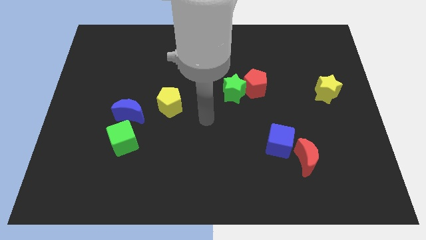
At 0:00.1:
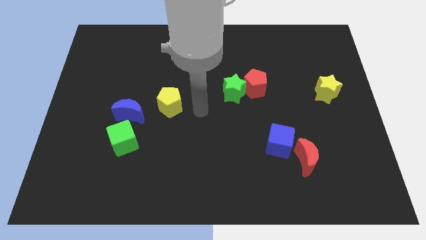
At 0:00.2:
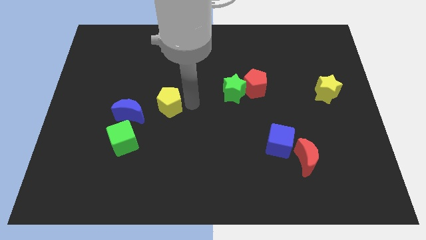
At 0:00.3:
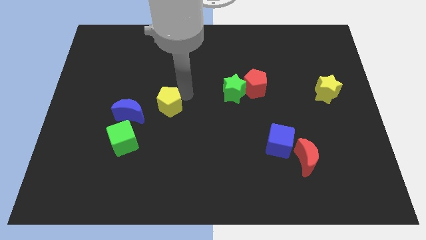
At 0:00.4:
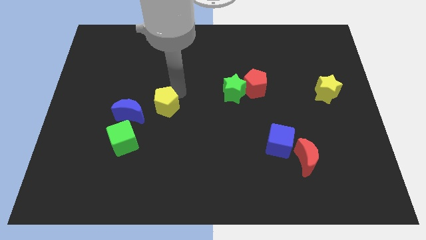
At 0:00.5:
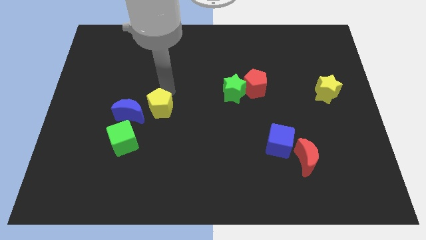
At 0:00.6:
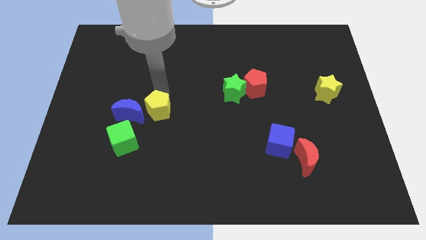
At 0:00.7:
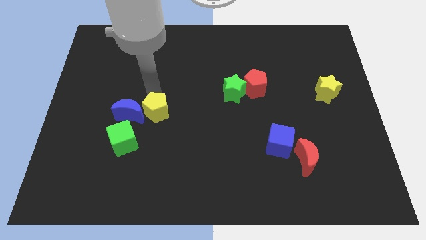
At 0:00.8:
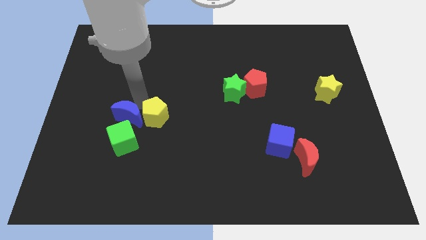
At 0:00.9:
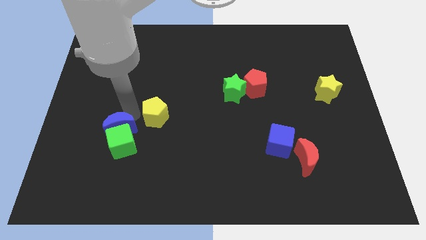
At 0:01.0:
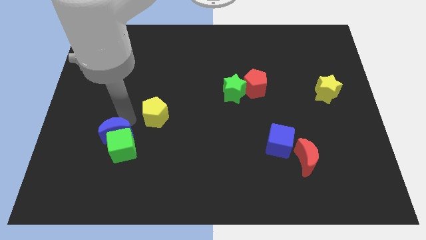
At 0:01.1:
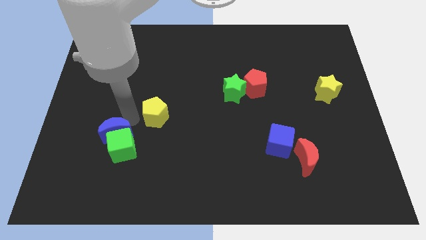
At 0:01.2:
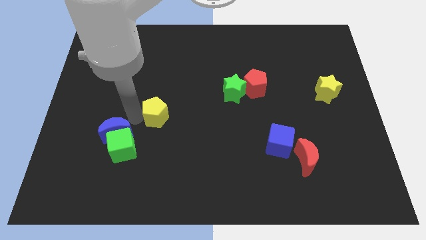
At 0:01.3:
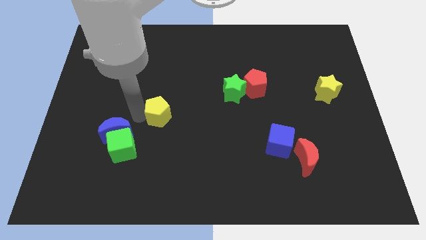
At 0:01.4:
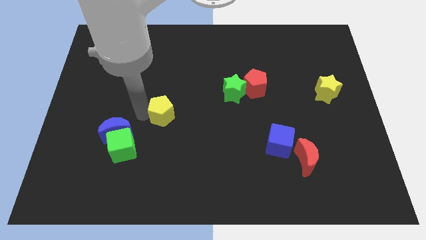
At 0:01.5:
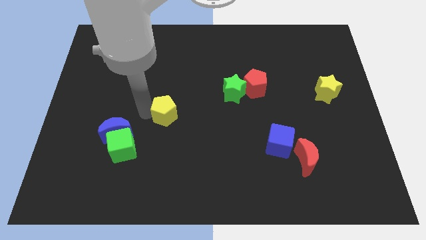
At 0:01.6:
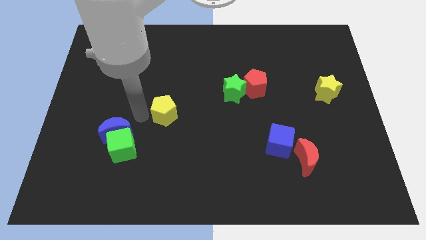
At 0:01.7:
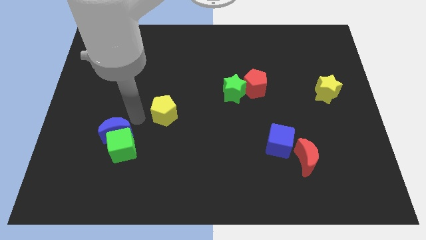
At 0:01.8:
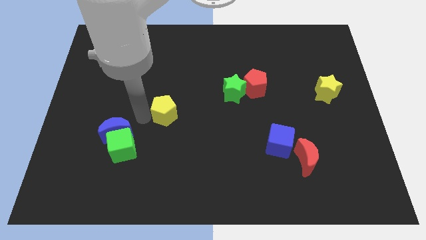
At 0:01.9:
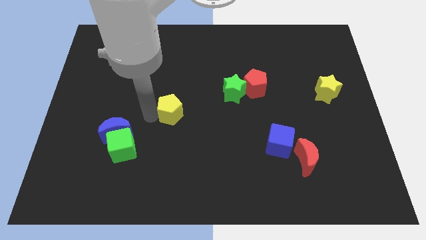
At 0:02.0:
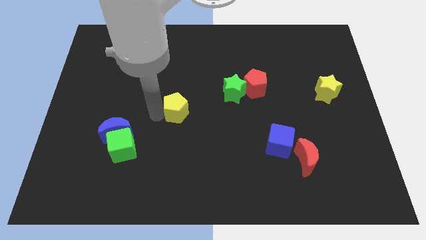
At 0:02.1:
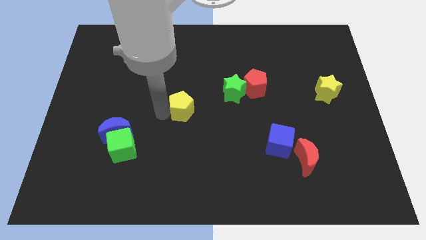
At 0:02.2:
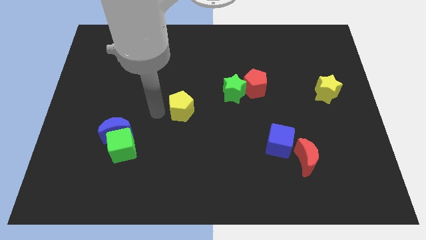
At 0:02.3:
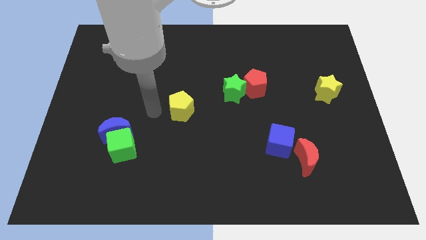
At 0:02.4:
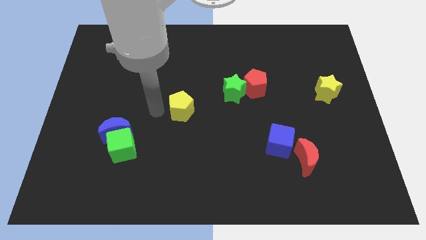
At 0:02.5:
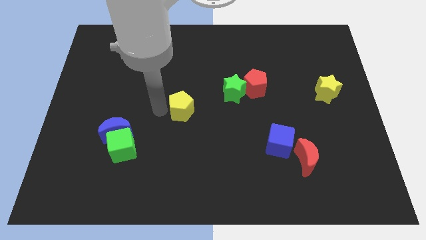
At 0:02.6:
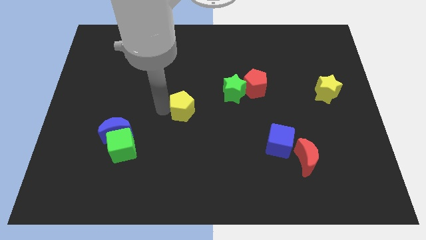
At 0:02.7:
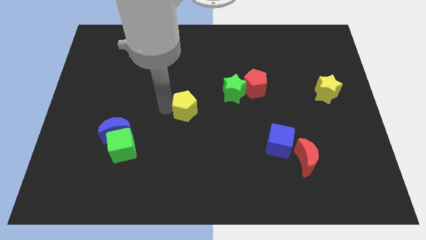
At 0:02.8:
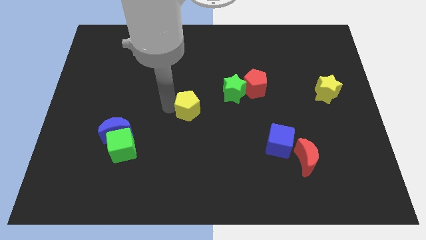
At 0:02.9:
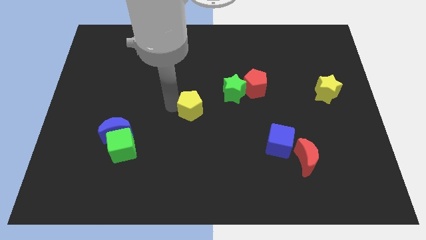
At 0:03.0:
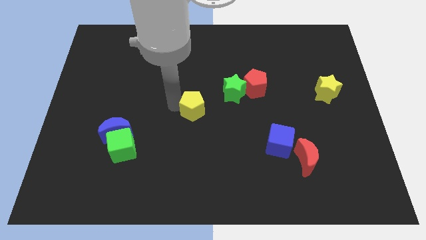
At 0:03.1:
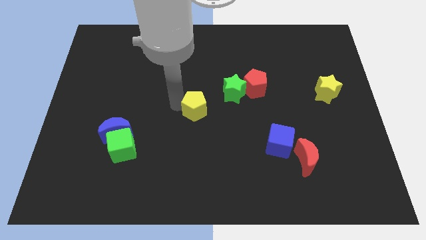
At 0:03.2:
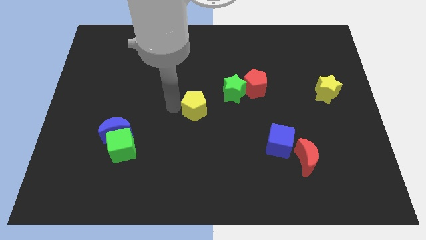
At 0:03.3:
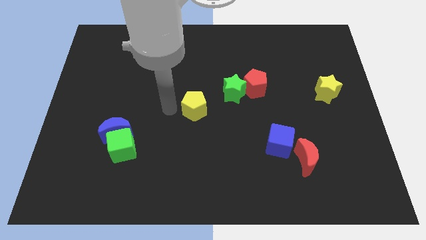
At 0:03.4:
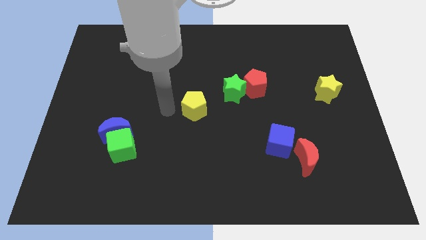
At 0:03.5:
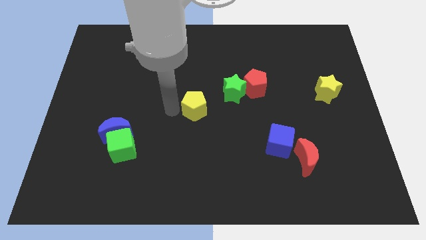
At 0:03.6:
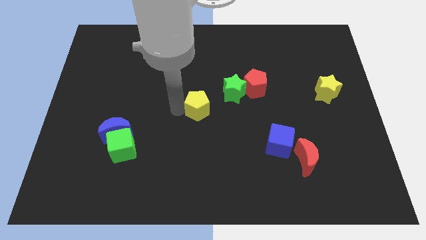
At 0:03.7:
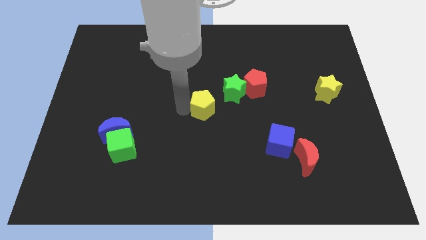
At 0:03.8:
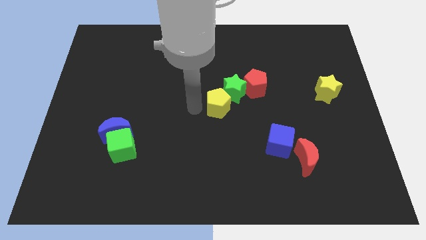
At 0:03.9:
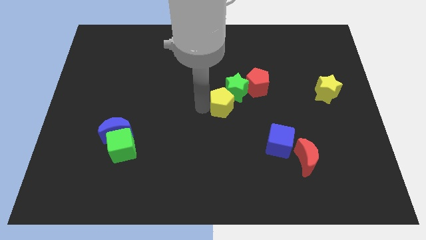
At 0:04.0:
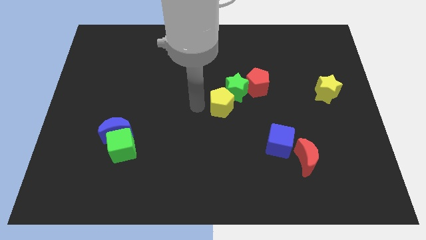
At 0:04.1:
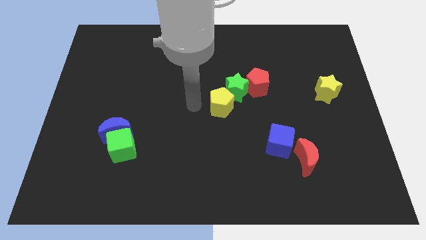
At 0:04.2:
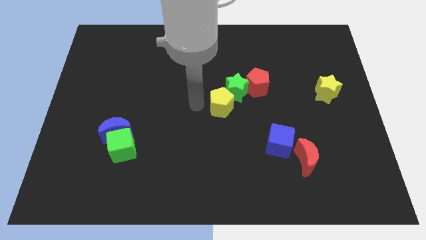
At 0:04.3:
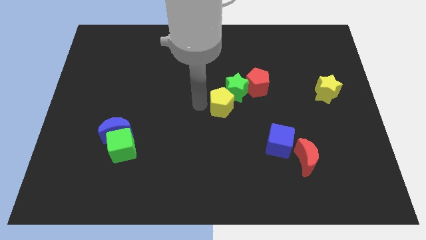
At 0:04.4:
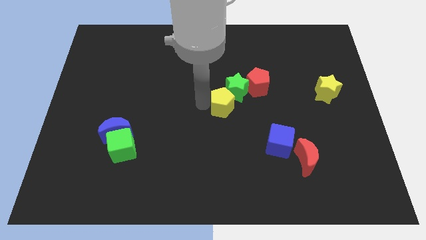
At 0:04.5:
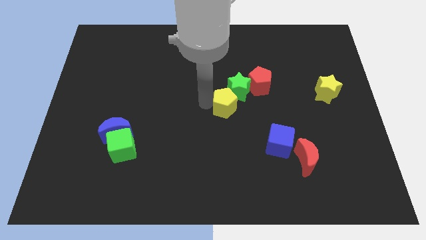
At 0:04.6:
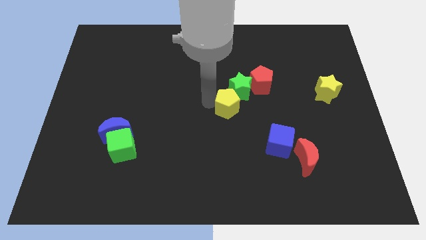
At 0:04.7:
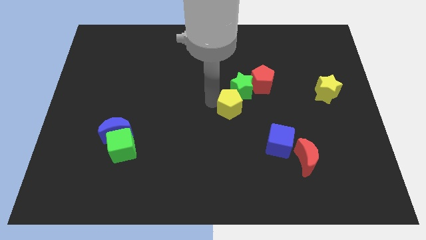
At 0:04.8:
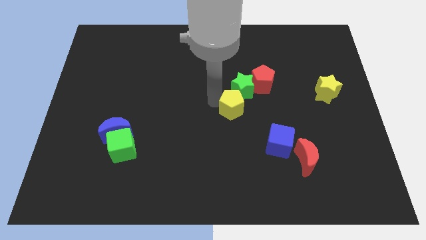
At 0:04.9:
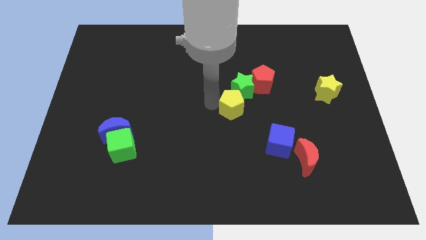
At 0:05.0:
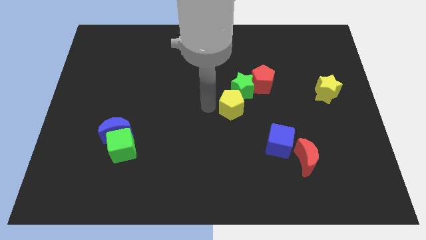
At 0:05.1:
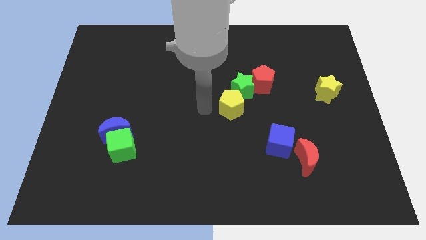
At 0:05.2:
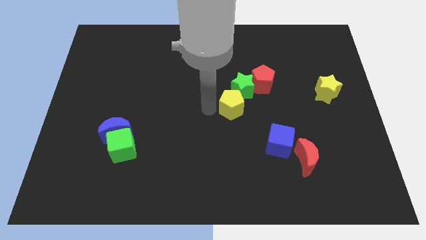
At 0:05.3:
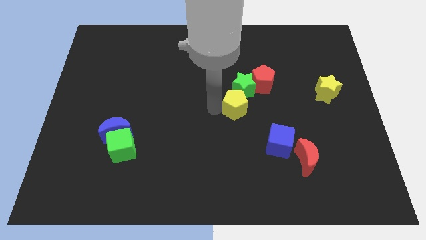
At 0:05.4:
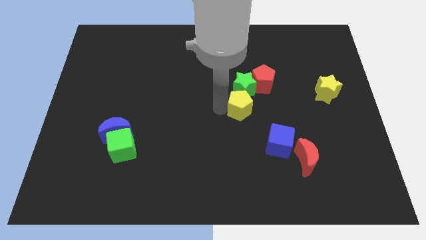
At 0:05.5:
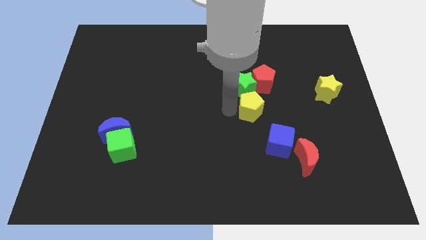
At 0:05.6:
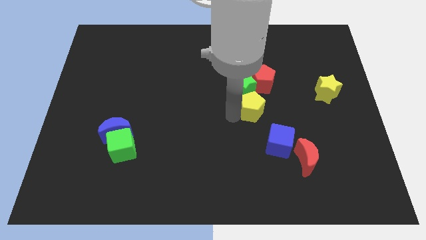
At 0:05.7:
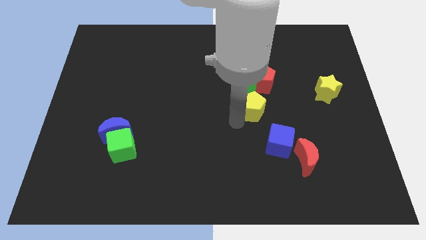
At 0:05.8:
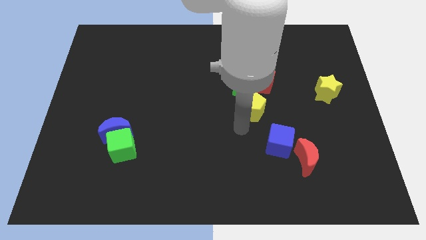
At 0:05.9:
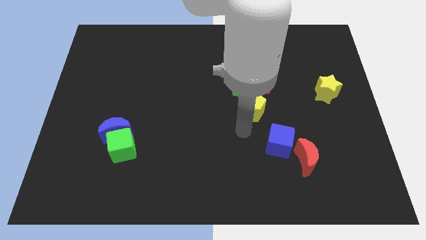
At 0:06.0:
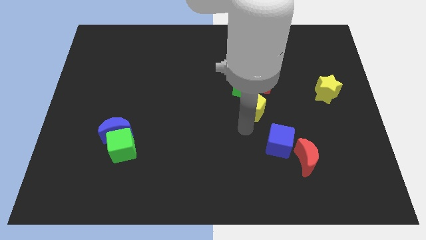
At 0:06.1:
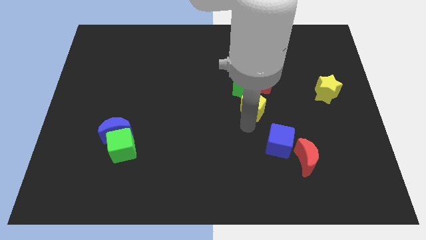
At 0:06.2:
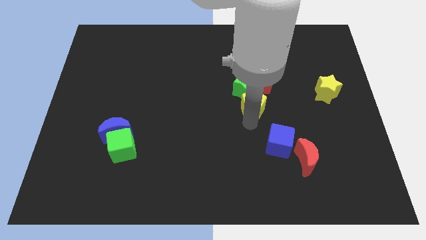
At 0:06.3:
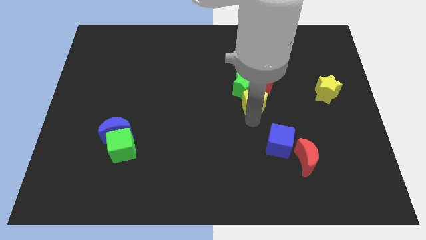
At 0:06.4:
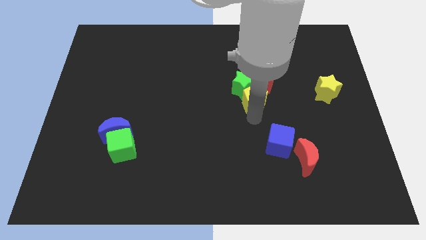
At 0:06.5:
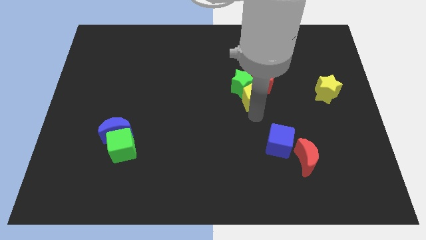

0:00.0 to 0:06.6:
put the yellow pentagon towards the red pentagon
